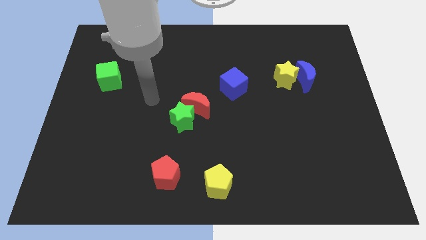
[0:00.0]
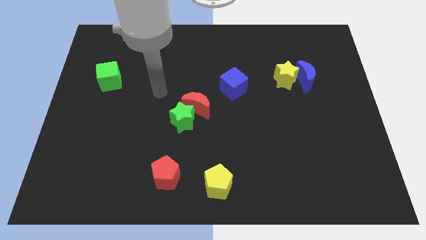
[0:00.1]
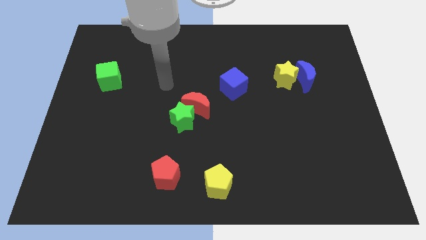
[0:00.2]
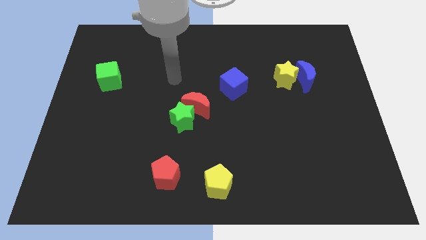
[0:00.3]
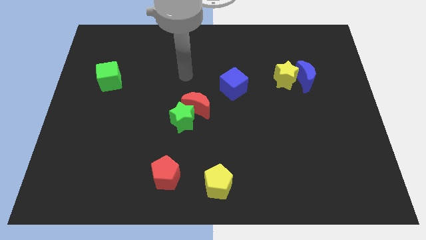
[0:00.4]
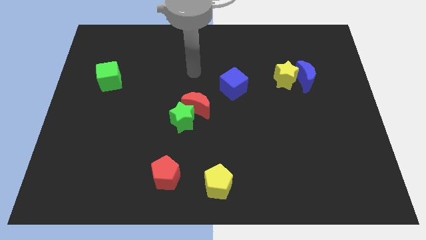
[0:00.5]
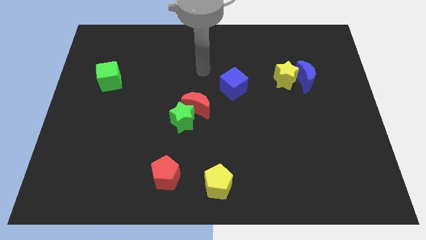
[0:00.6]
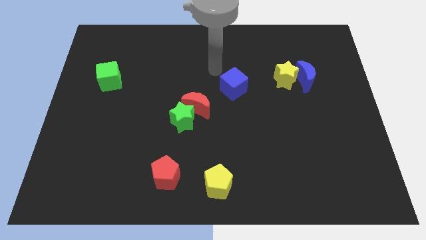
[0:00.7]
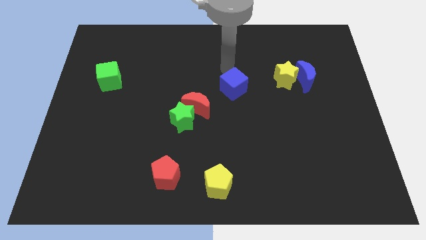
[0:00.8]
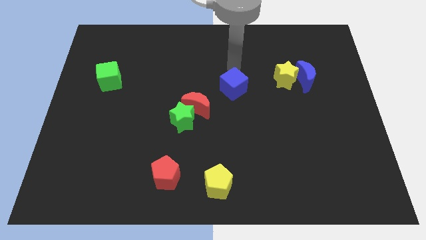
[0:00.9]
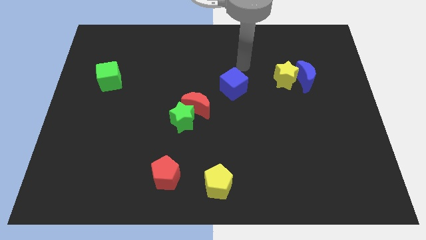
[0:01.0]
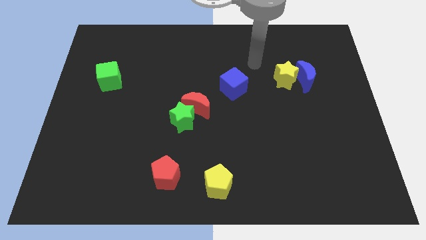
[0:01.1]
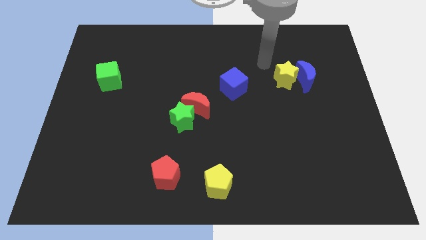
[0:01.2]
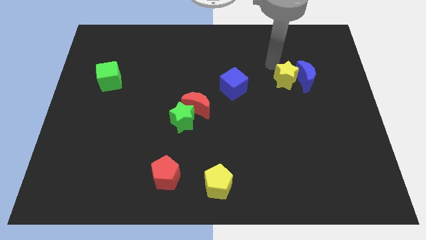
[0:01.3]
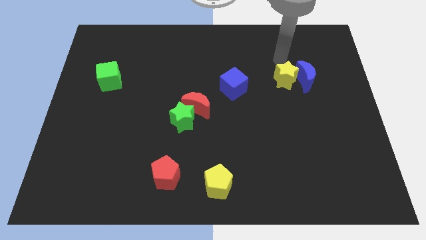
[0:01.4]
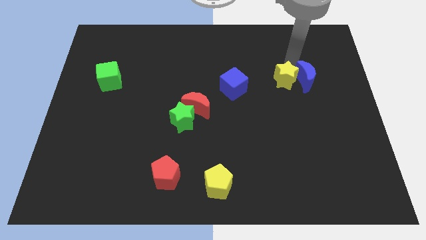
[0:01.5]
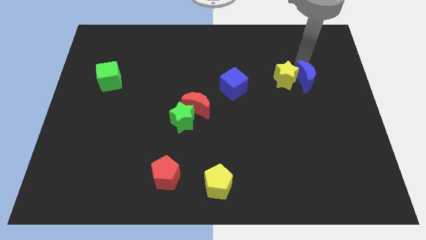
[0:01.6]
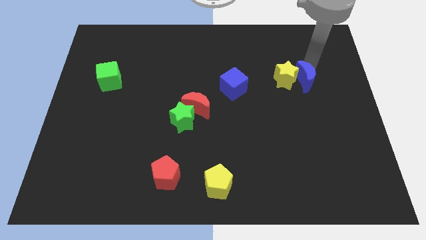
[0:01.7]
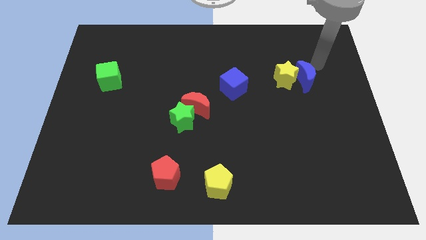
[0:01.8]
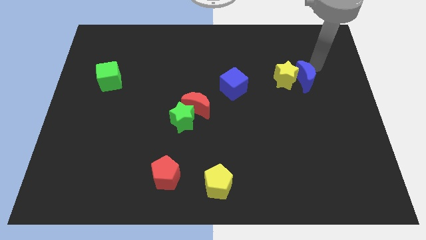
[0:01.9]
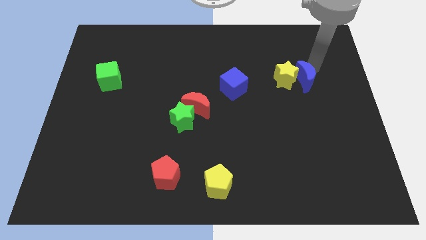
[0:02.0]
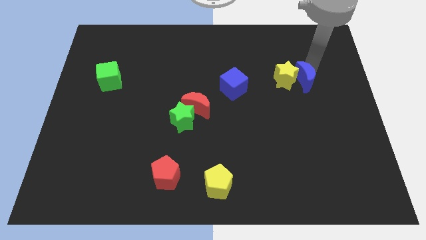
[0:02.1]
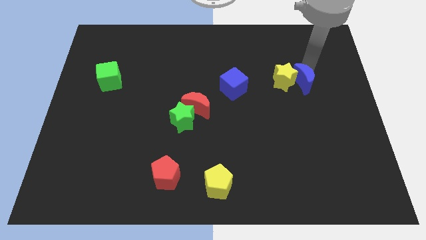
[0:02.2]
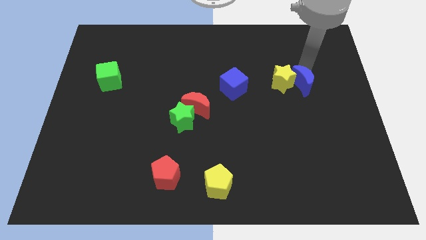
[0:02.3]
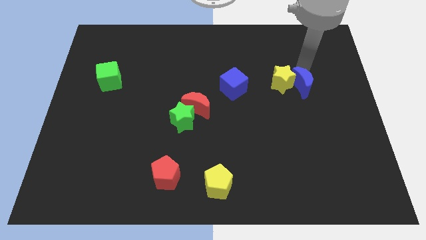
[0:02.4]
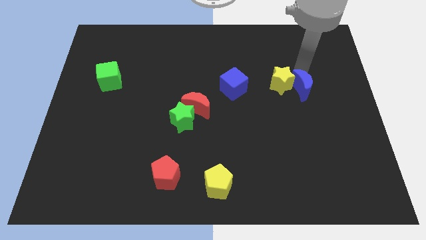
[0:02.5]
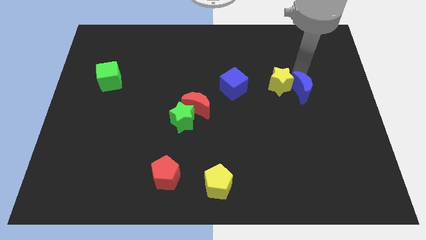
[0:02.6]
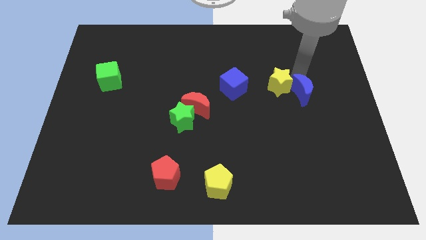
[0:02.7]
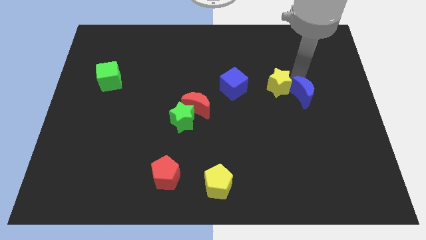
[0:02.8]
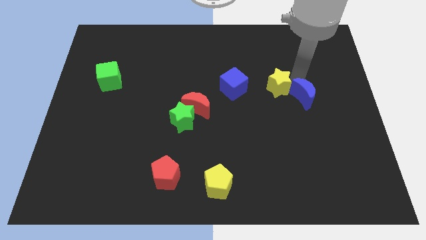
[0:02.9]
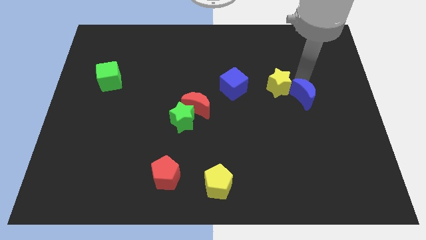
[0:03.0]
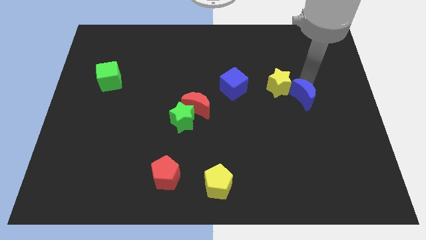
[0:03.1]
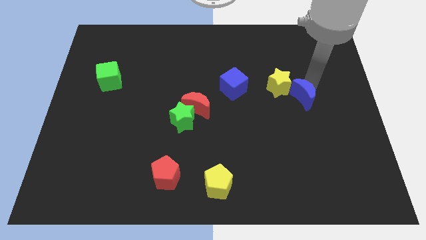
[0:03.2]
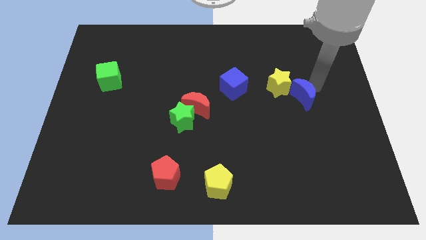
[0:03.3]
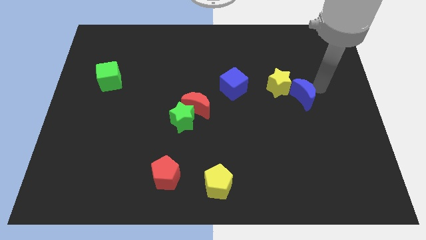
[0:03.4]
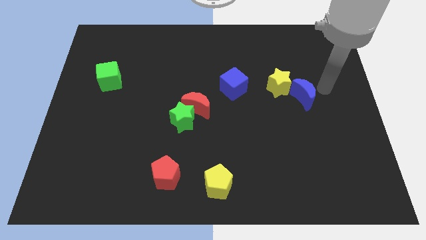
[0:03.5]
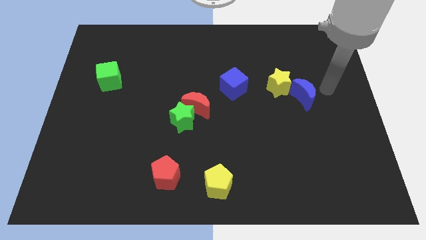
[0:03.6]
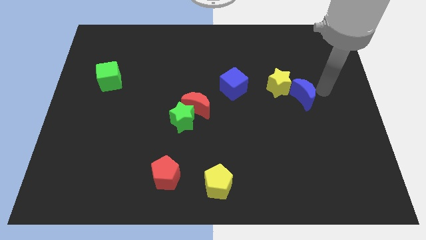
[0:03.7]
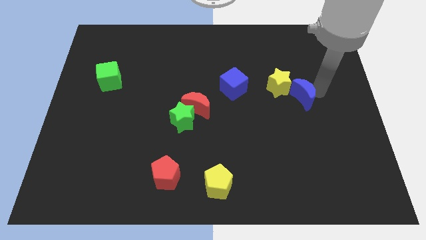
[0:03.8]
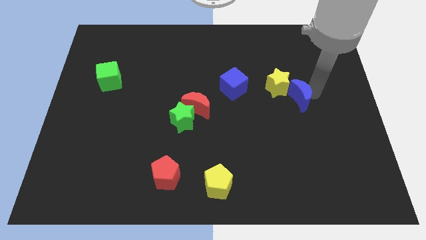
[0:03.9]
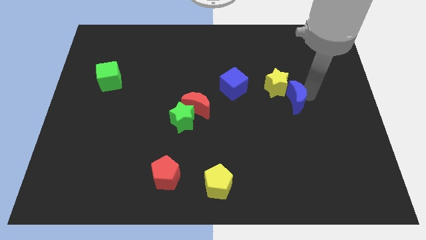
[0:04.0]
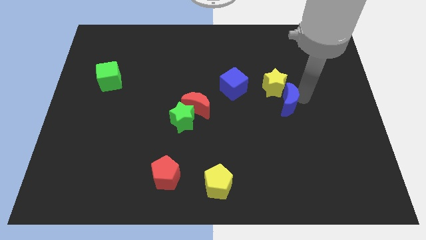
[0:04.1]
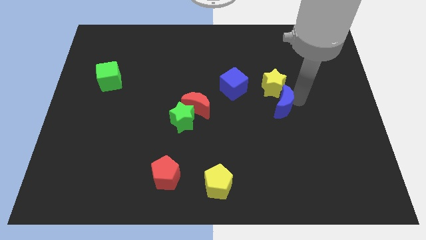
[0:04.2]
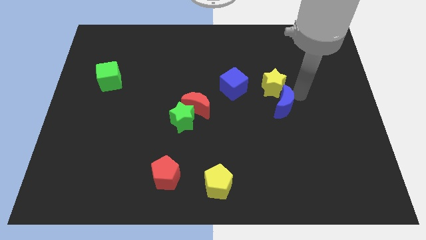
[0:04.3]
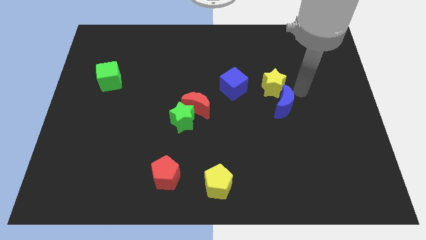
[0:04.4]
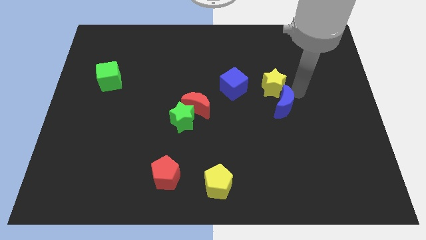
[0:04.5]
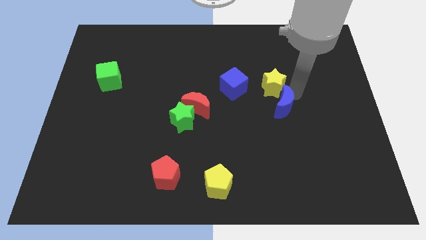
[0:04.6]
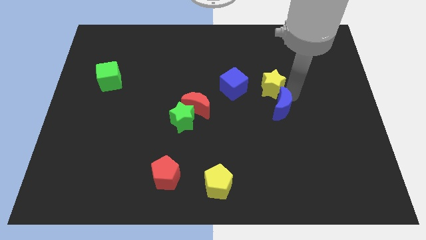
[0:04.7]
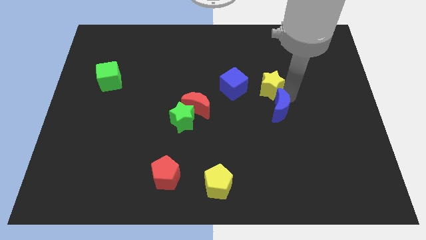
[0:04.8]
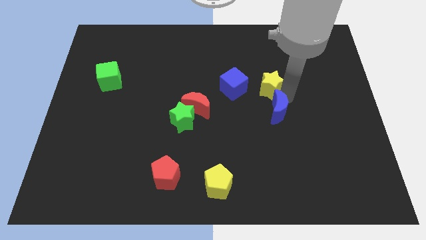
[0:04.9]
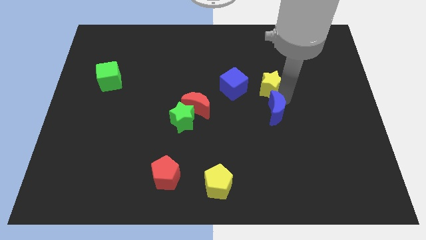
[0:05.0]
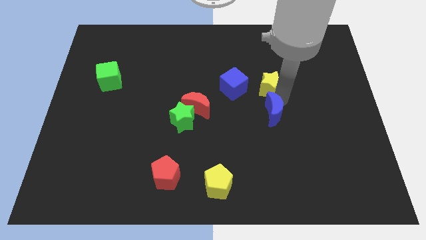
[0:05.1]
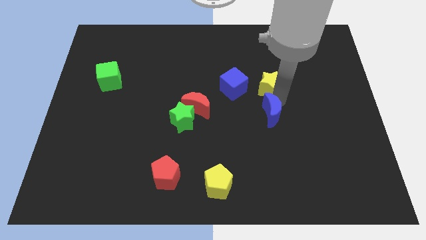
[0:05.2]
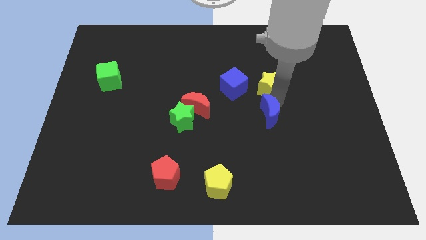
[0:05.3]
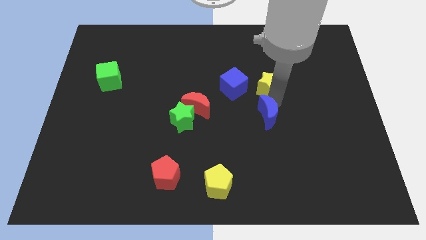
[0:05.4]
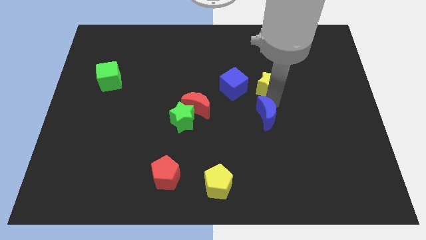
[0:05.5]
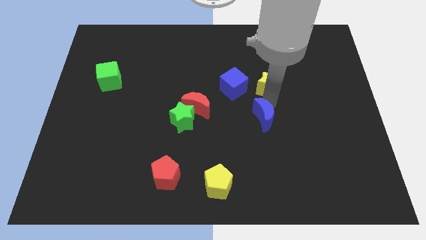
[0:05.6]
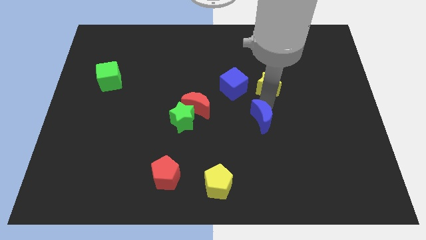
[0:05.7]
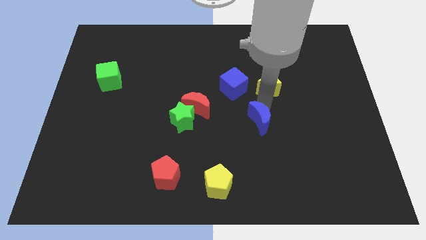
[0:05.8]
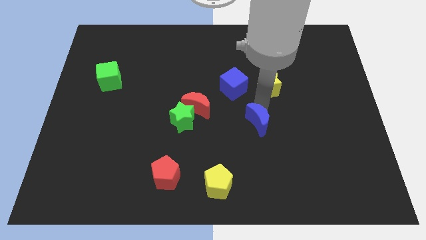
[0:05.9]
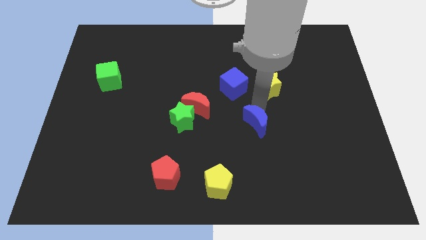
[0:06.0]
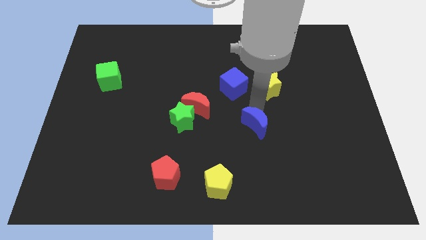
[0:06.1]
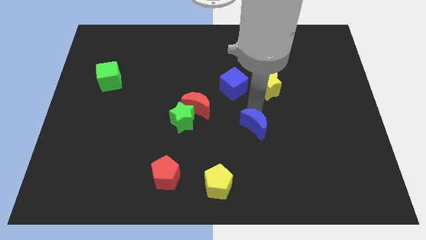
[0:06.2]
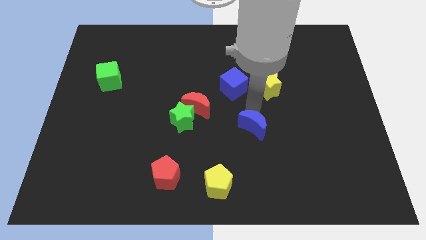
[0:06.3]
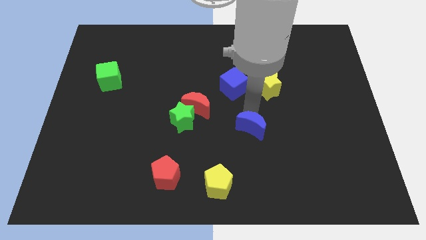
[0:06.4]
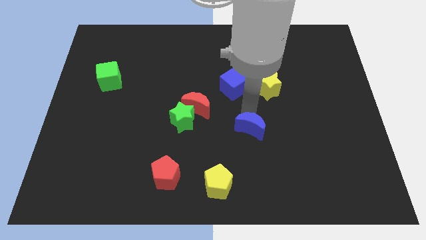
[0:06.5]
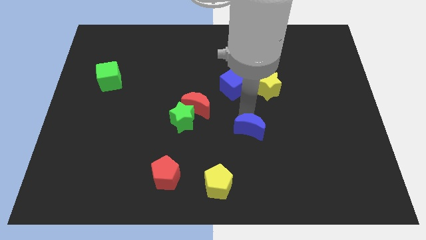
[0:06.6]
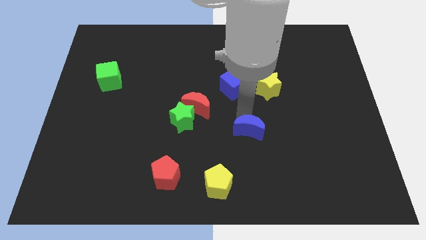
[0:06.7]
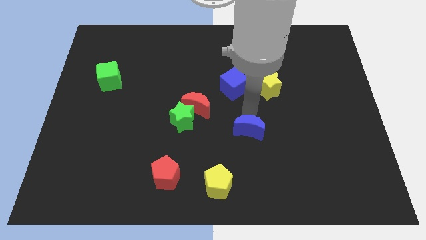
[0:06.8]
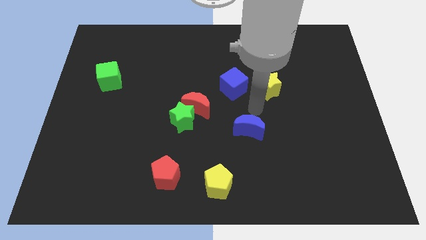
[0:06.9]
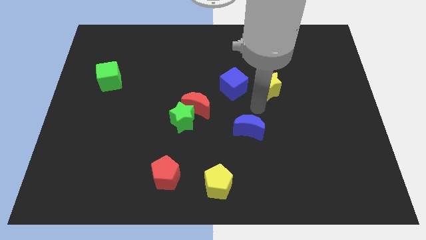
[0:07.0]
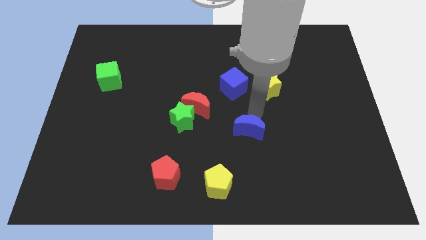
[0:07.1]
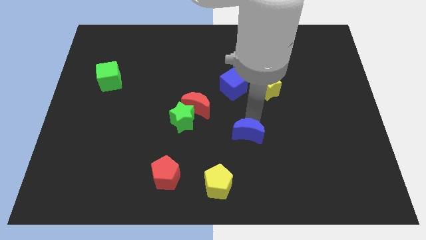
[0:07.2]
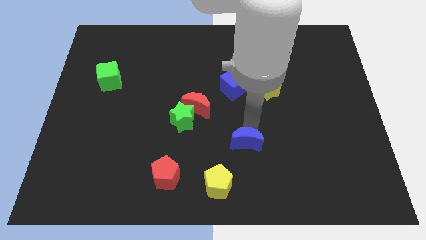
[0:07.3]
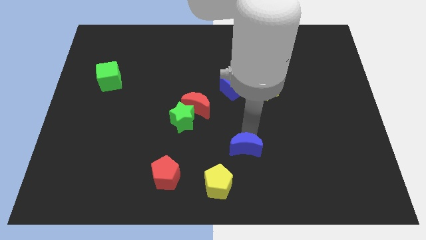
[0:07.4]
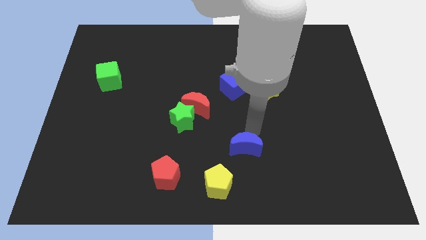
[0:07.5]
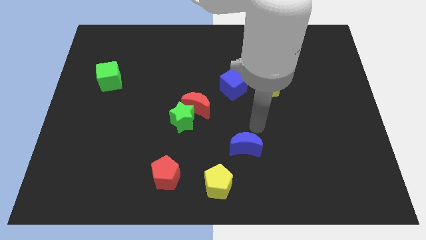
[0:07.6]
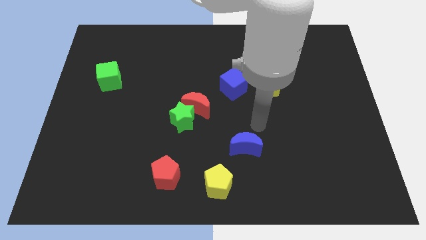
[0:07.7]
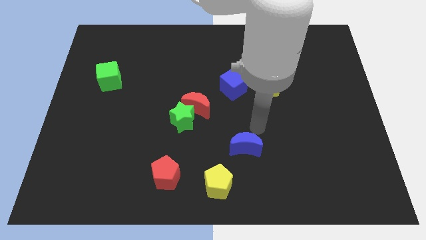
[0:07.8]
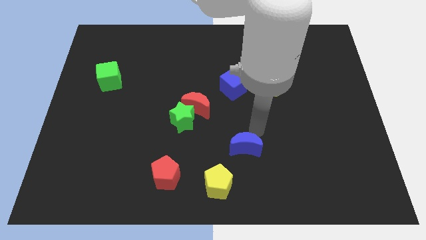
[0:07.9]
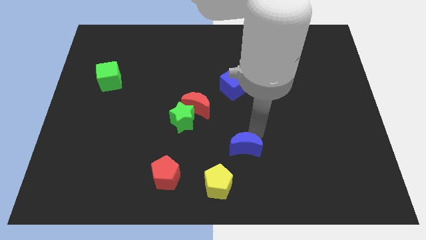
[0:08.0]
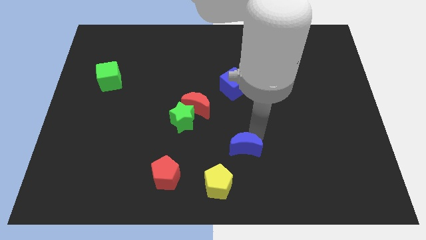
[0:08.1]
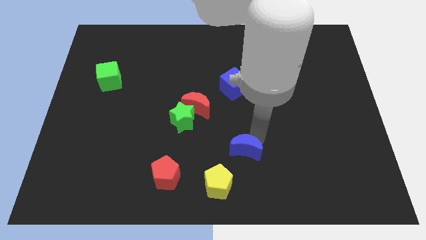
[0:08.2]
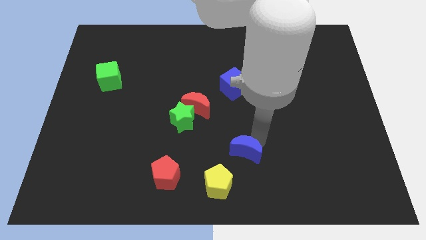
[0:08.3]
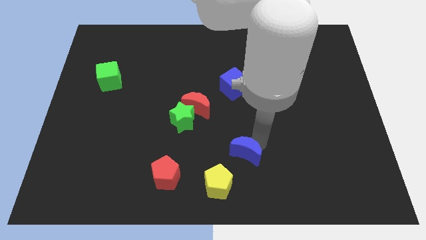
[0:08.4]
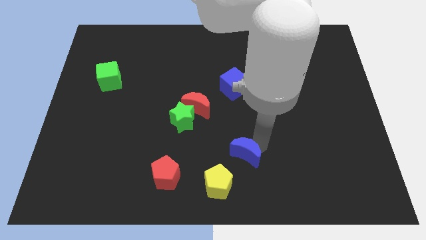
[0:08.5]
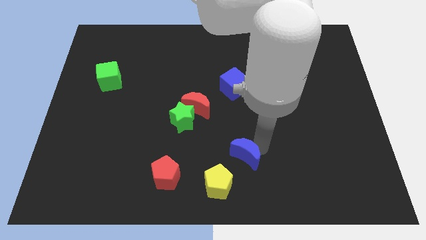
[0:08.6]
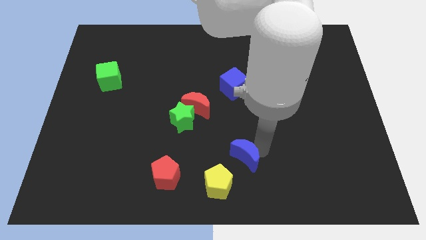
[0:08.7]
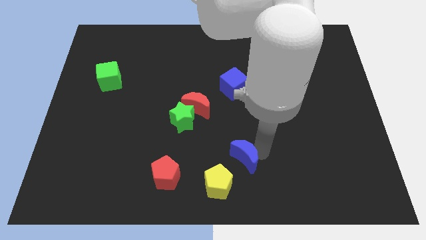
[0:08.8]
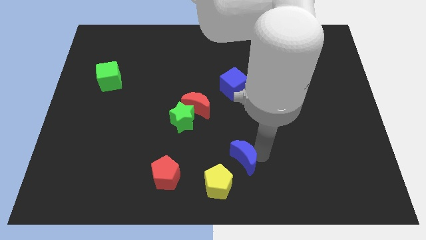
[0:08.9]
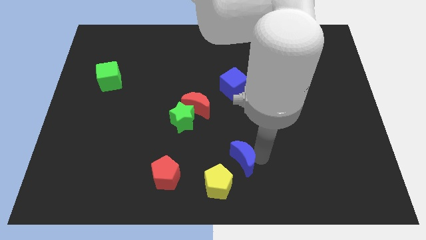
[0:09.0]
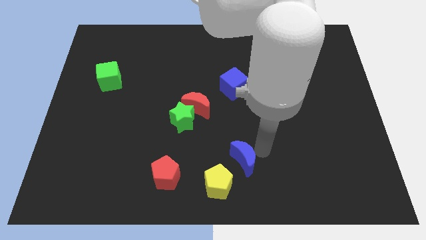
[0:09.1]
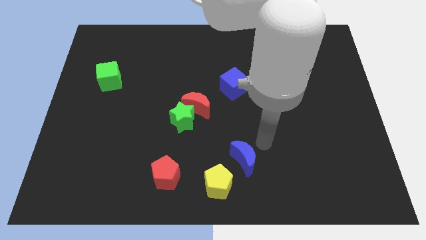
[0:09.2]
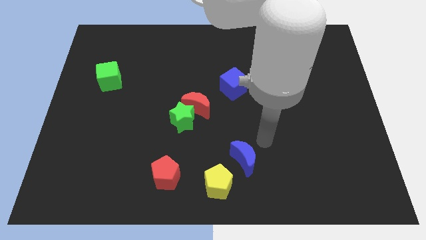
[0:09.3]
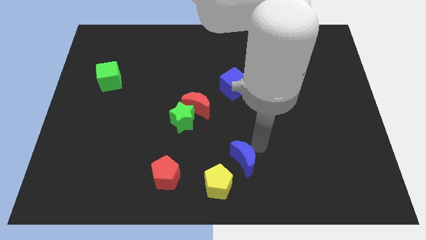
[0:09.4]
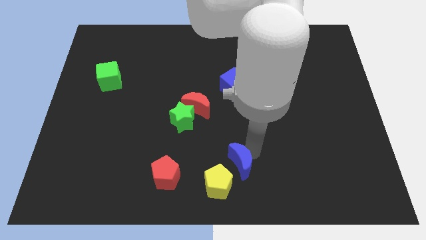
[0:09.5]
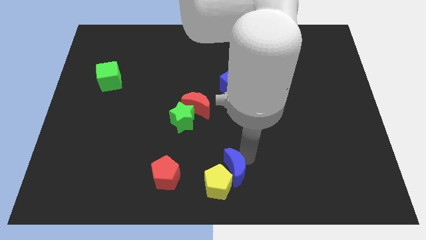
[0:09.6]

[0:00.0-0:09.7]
put the blue moon close to the yellow pentagon
